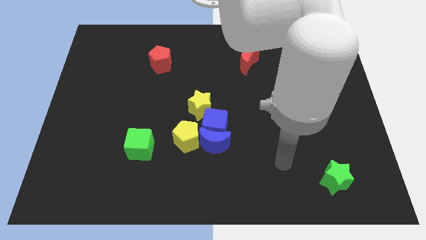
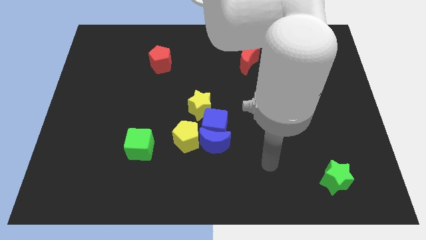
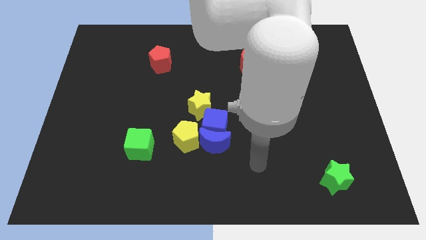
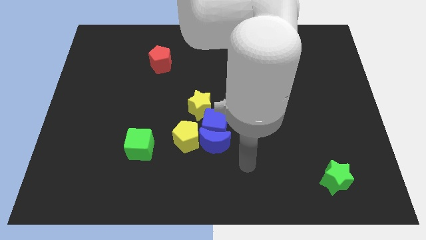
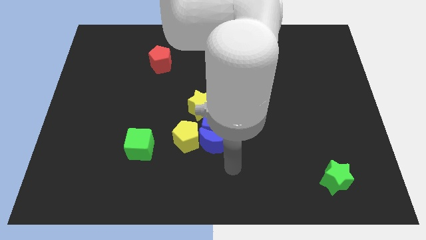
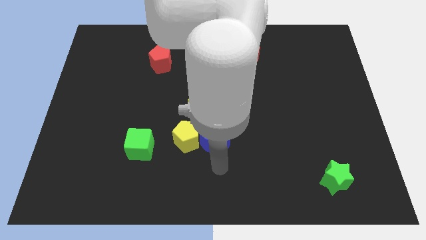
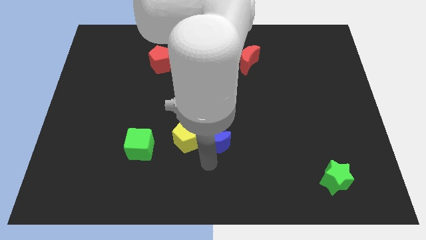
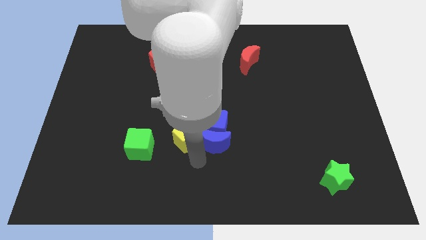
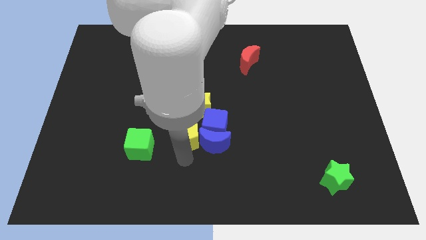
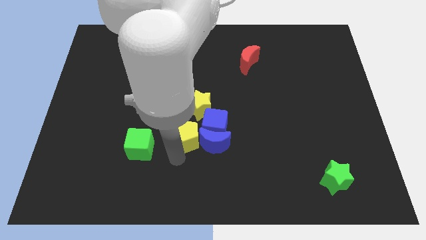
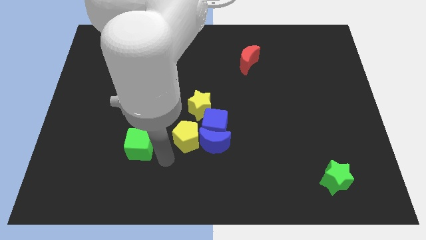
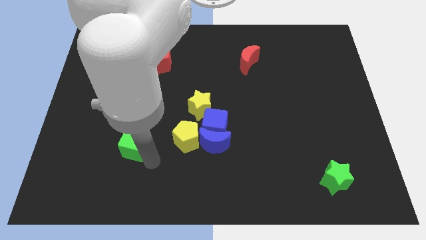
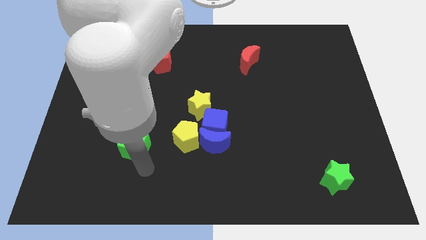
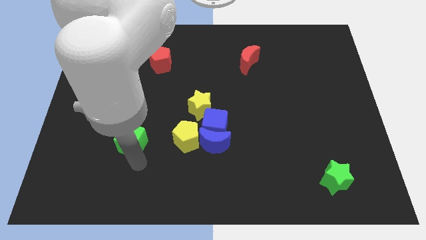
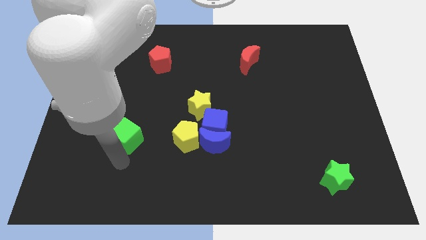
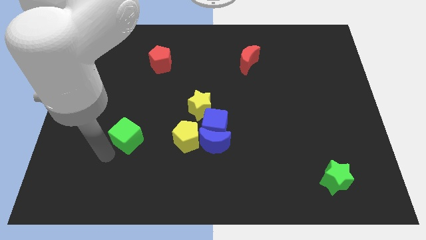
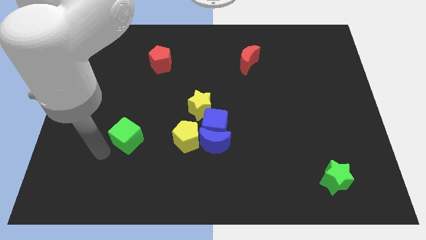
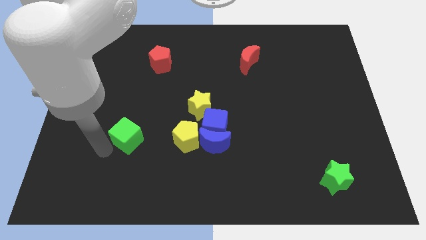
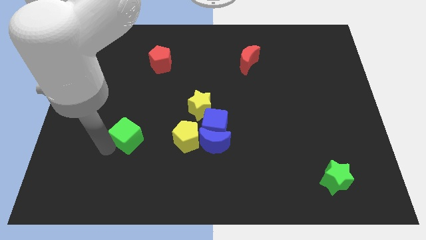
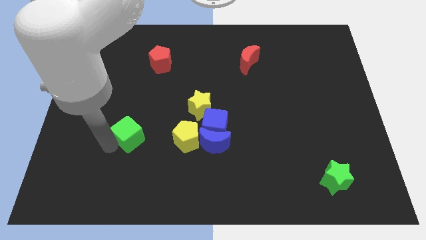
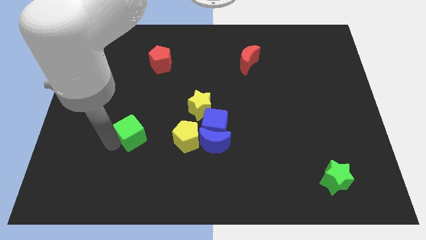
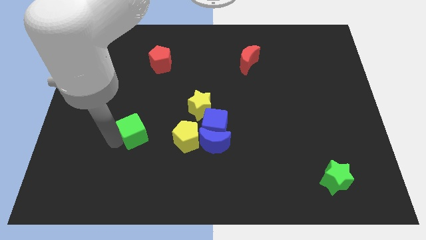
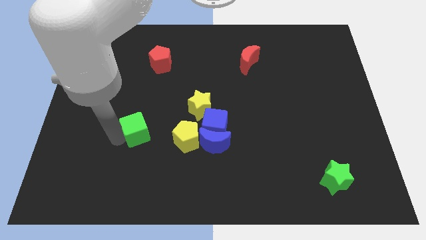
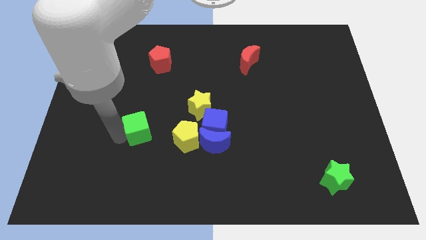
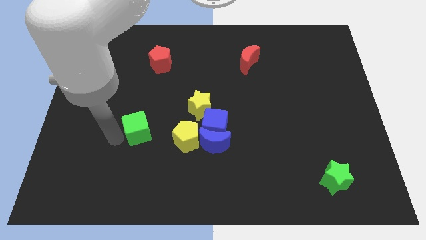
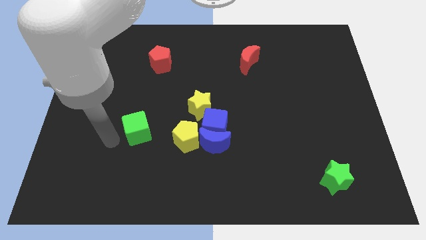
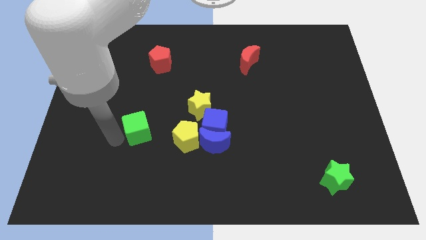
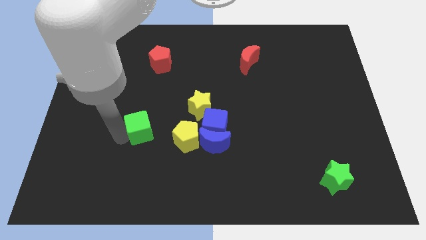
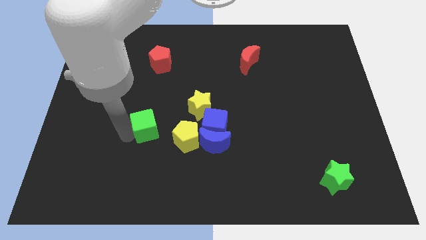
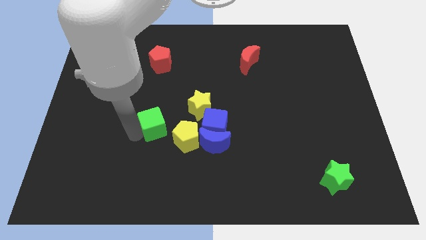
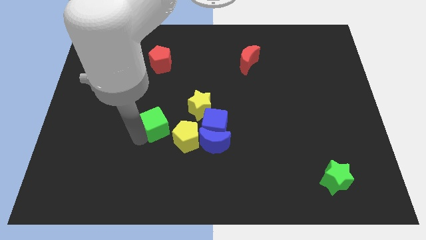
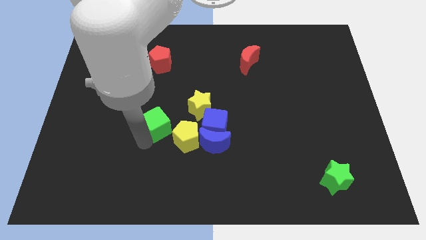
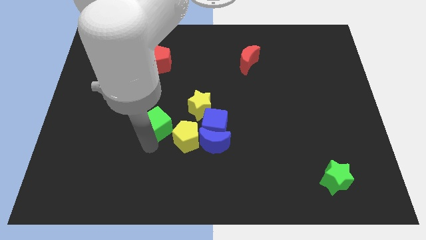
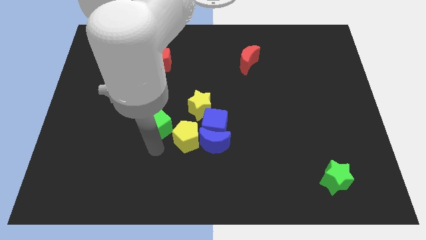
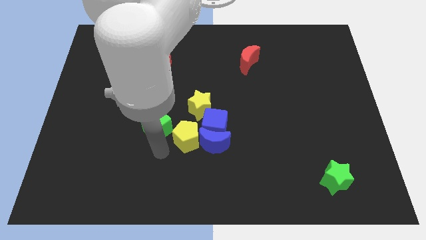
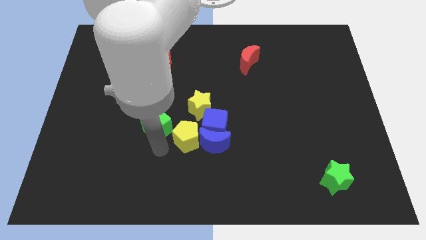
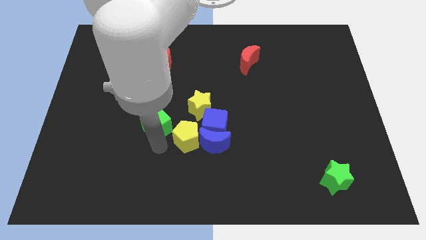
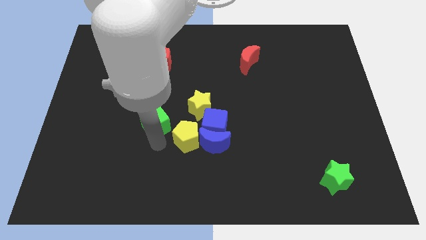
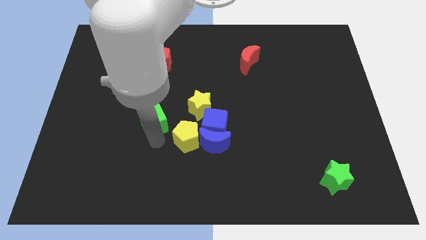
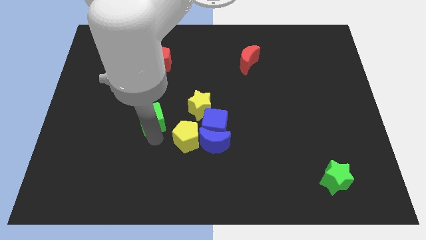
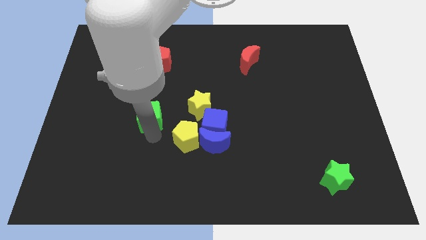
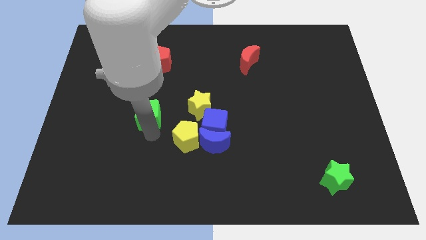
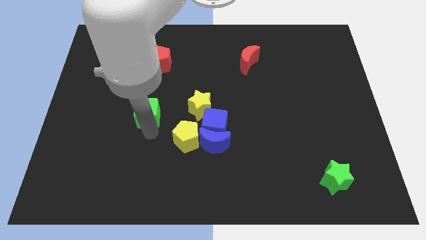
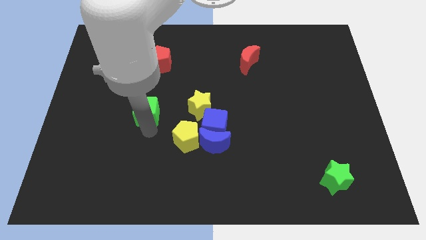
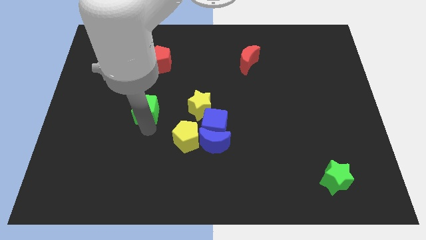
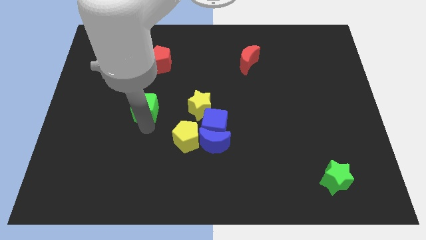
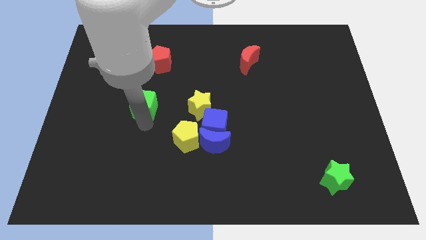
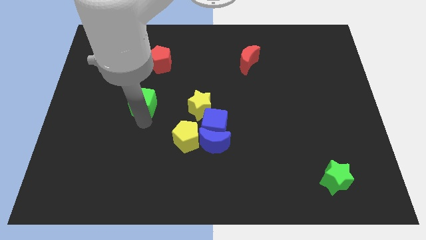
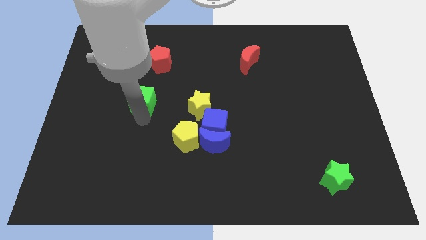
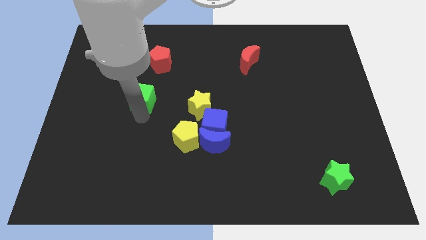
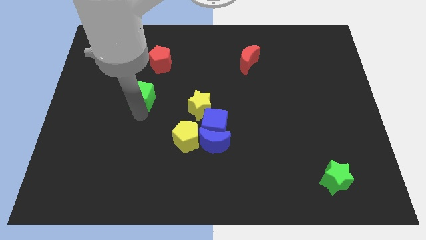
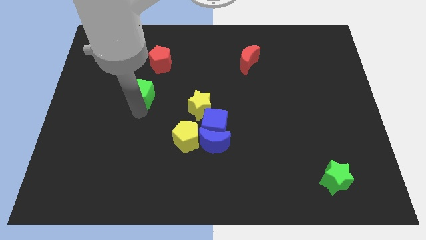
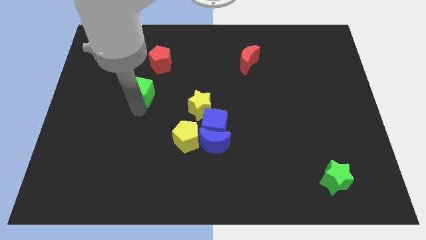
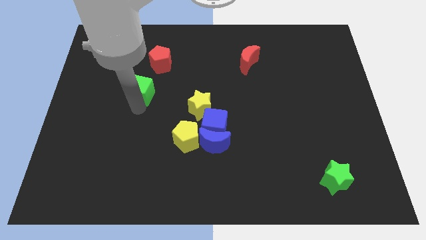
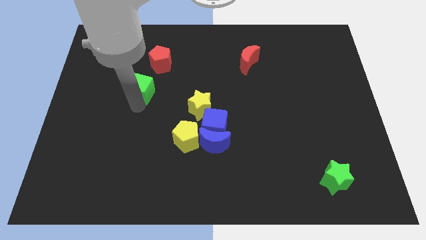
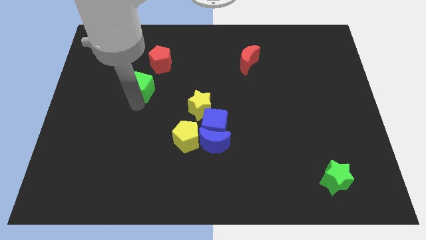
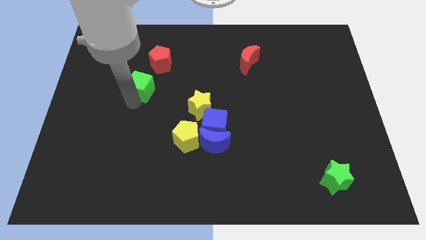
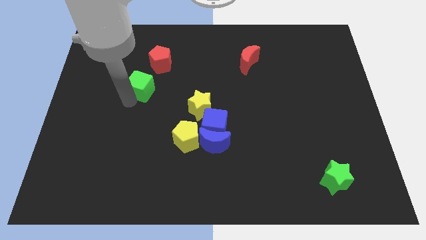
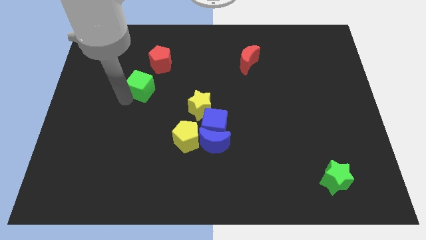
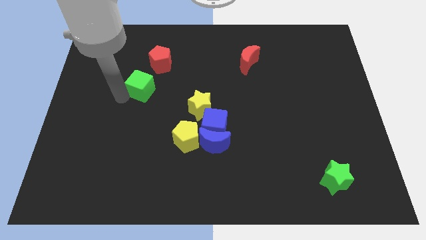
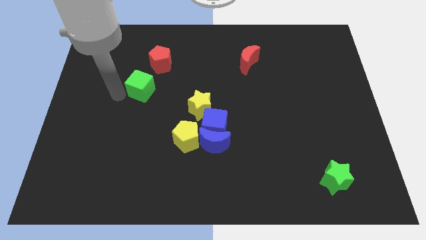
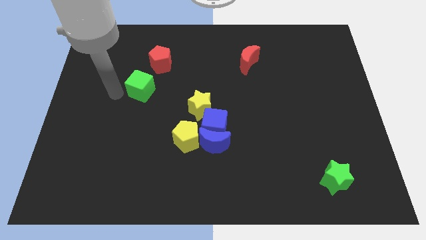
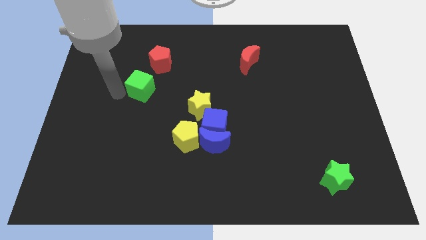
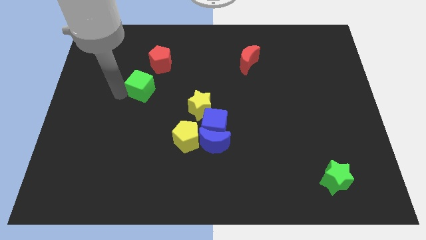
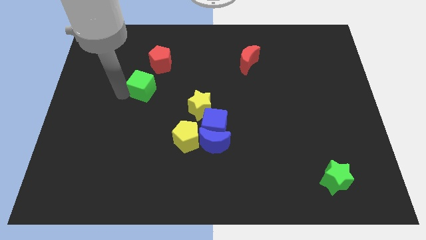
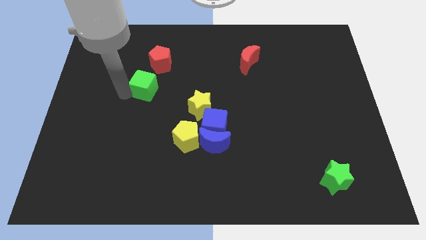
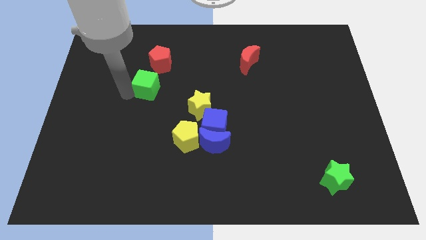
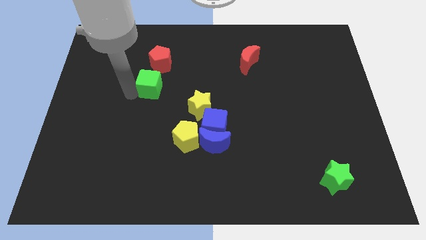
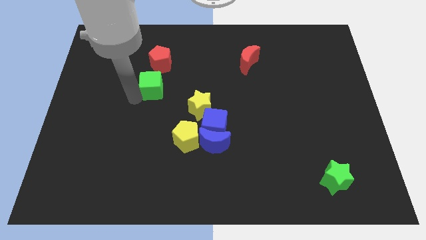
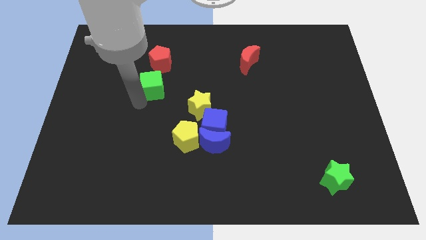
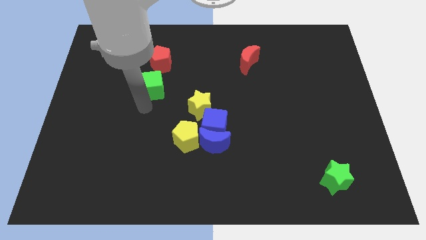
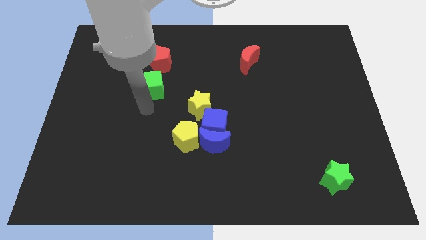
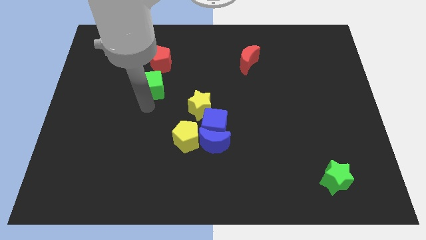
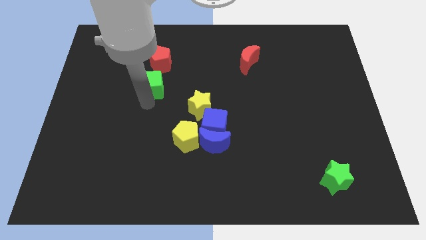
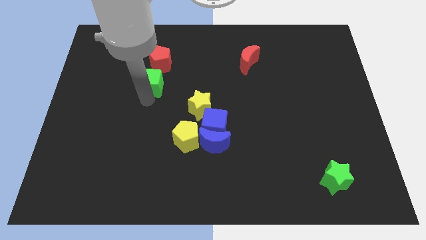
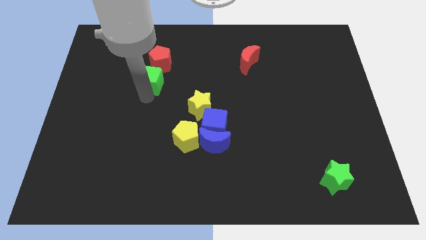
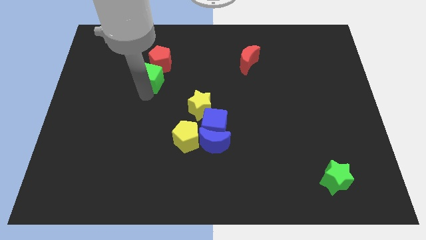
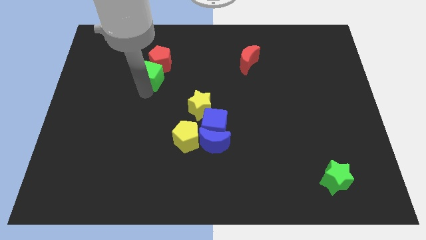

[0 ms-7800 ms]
slide the green cube close to the red pentagon
